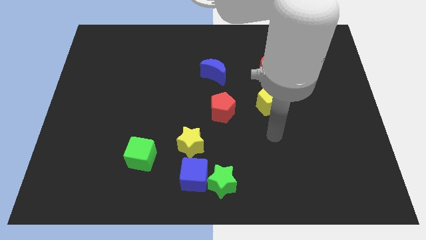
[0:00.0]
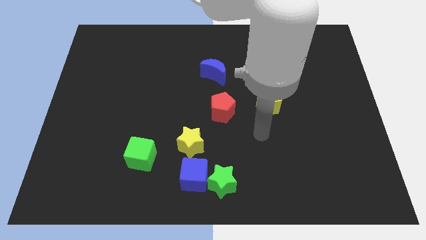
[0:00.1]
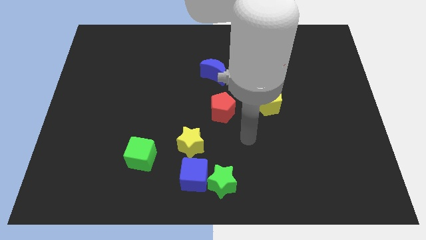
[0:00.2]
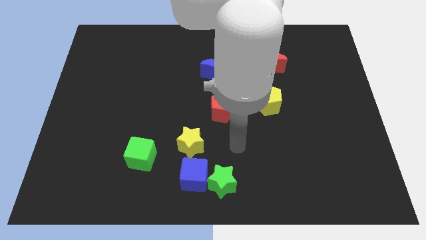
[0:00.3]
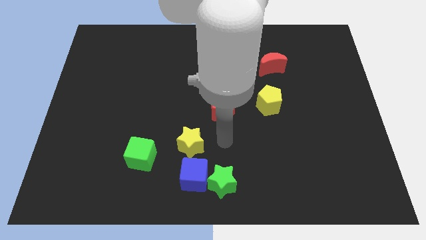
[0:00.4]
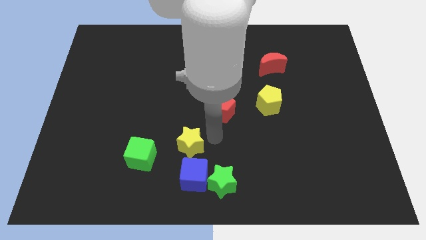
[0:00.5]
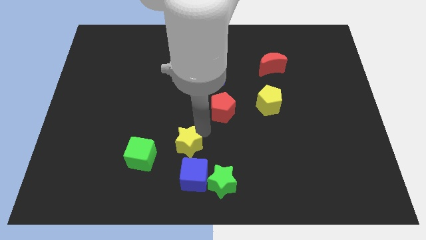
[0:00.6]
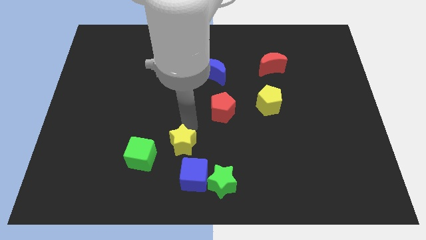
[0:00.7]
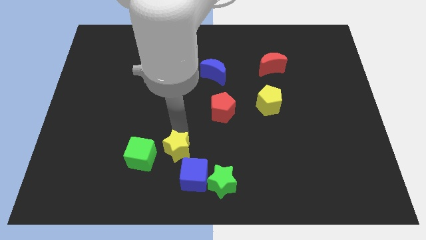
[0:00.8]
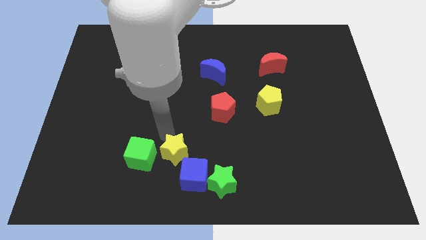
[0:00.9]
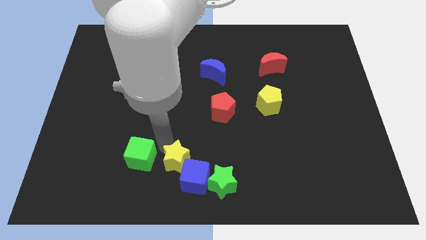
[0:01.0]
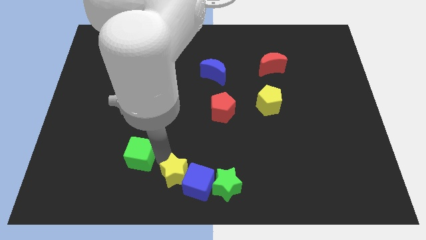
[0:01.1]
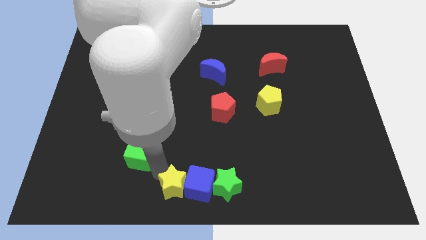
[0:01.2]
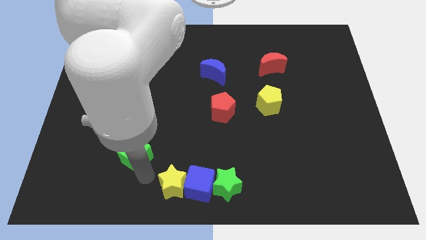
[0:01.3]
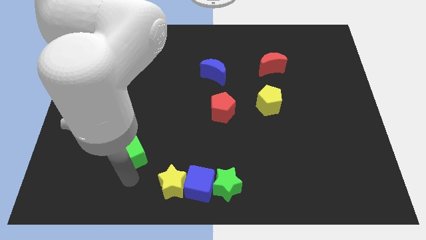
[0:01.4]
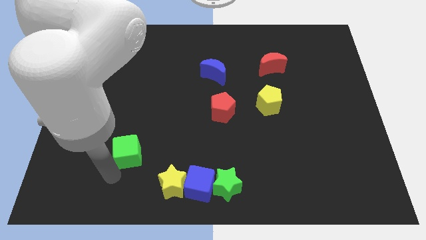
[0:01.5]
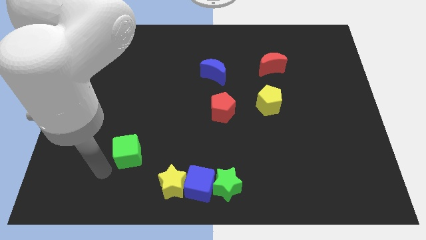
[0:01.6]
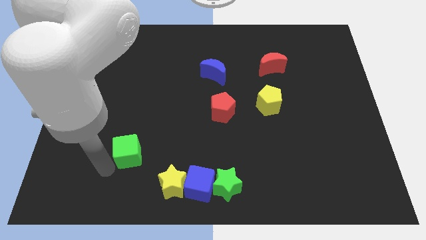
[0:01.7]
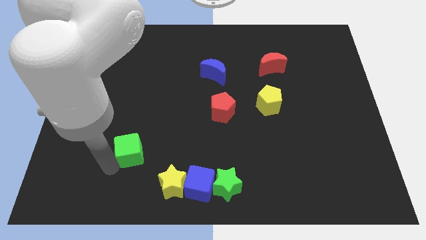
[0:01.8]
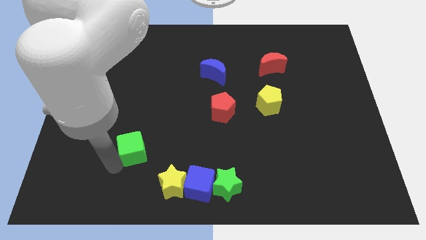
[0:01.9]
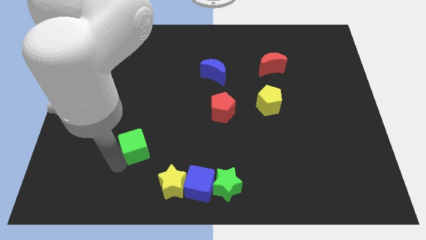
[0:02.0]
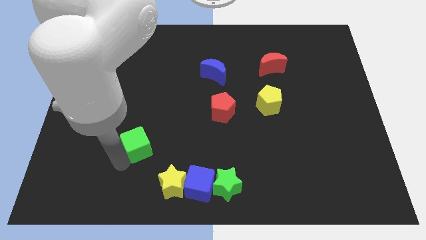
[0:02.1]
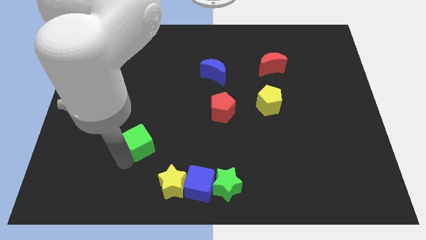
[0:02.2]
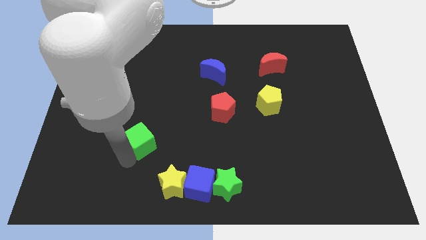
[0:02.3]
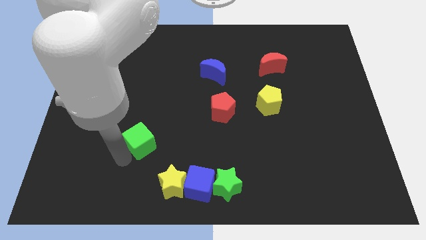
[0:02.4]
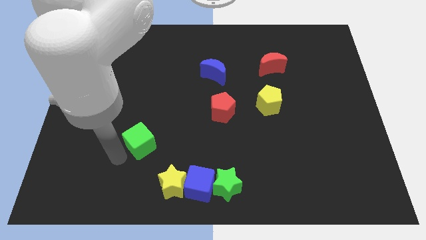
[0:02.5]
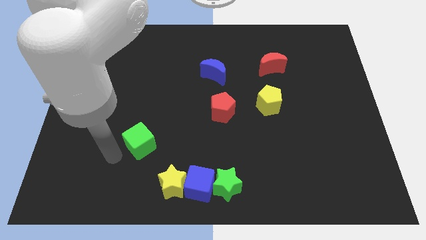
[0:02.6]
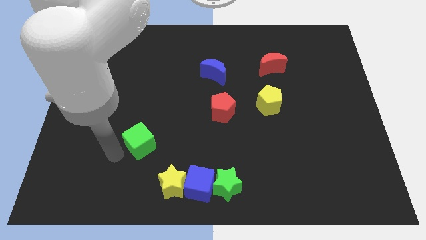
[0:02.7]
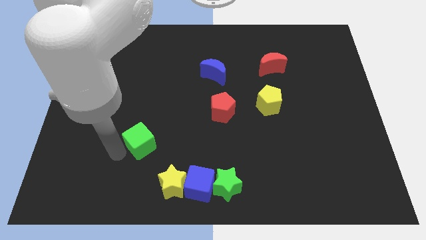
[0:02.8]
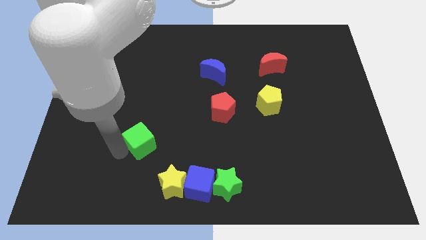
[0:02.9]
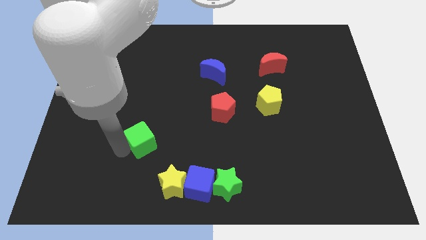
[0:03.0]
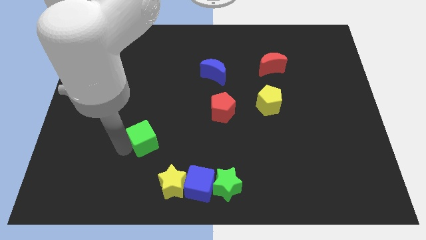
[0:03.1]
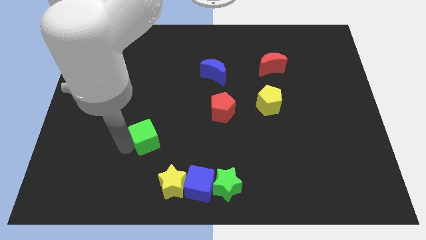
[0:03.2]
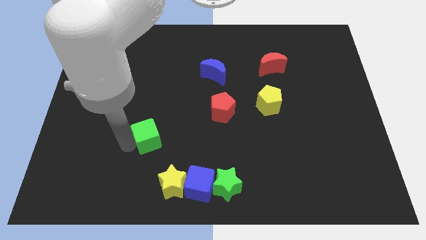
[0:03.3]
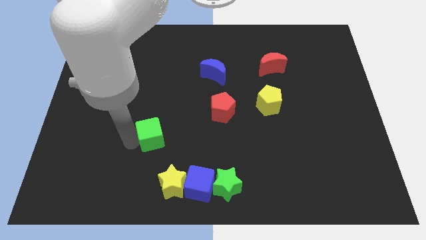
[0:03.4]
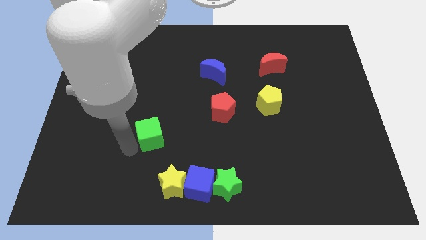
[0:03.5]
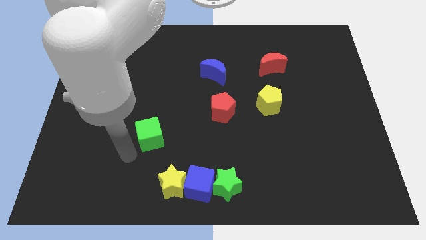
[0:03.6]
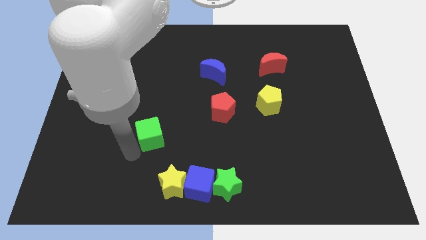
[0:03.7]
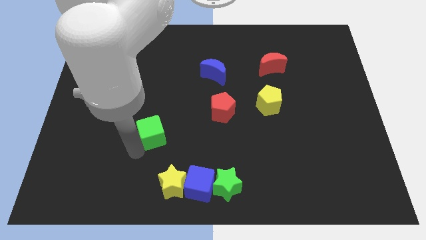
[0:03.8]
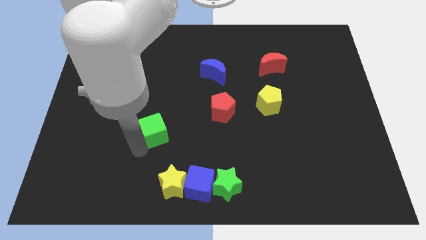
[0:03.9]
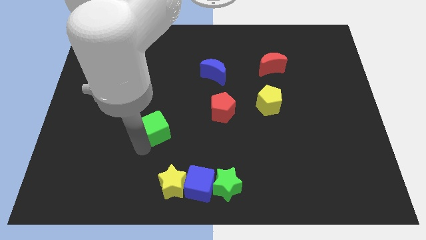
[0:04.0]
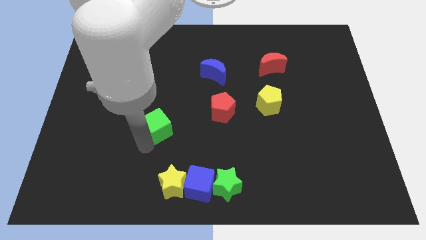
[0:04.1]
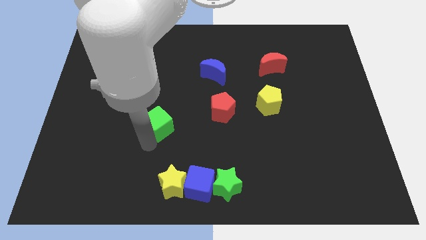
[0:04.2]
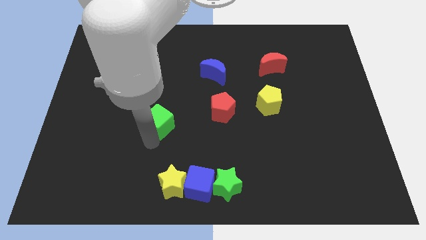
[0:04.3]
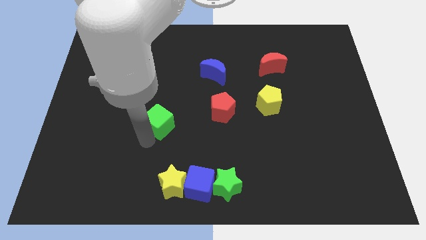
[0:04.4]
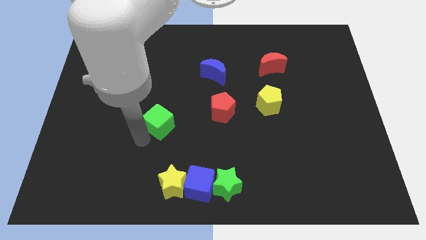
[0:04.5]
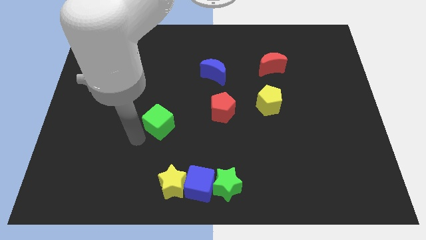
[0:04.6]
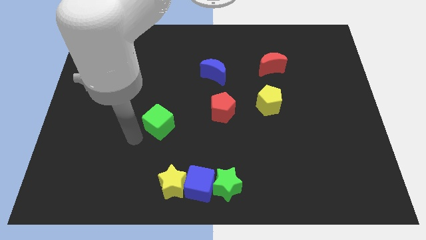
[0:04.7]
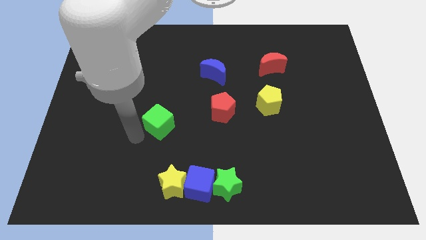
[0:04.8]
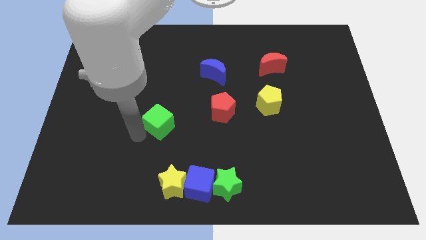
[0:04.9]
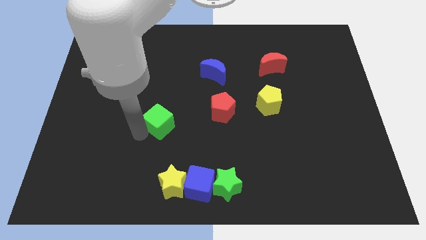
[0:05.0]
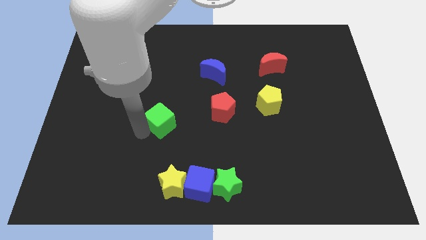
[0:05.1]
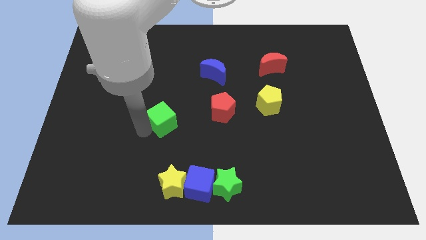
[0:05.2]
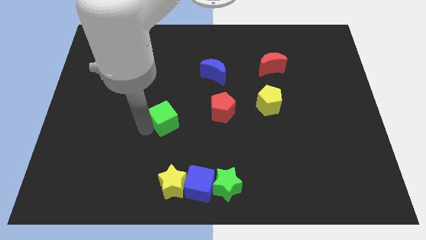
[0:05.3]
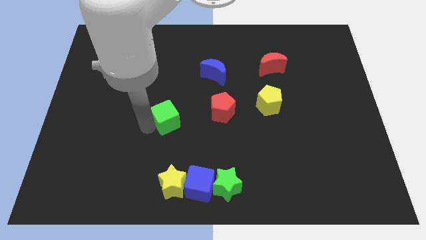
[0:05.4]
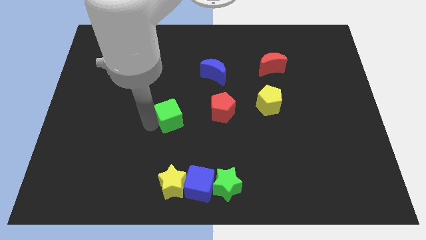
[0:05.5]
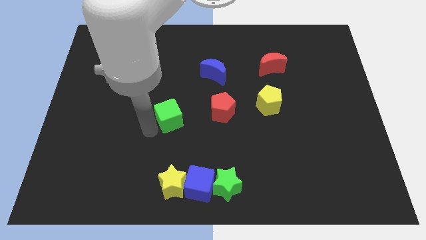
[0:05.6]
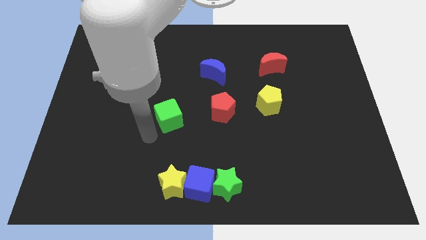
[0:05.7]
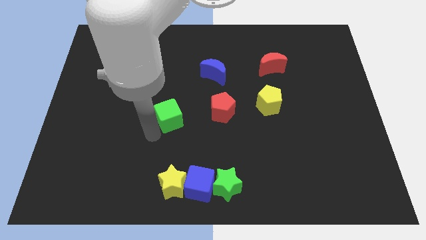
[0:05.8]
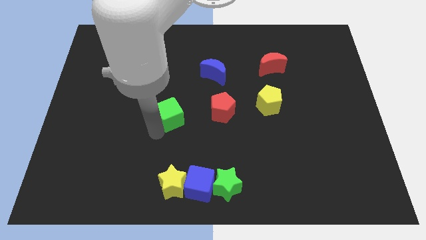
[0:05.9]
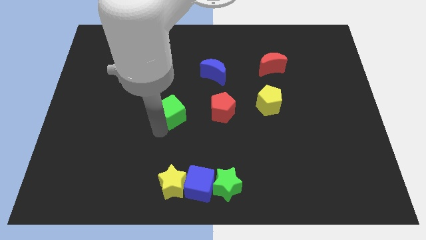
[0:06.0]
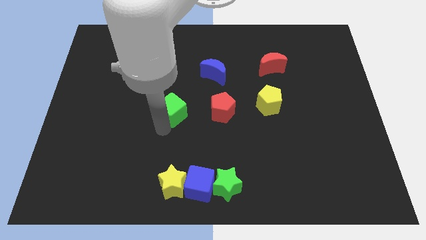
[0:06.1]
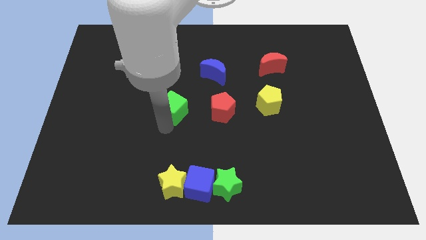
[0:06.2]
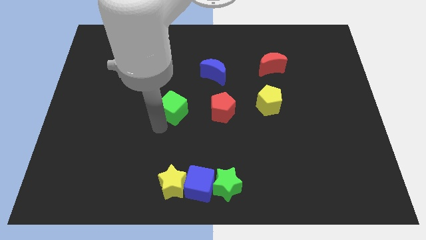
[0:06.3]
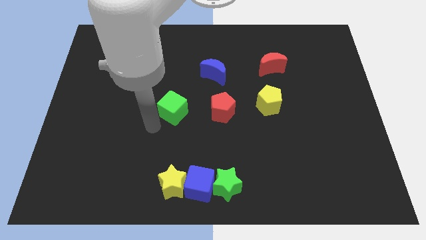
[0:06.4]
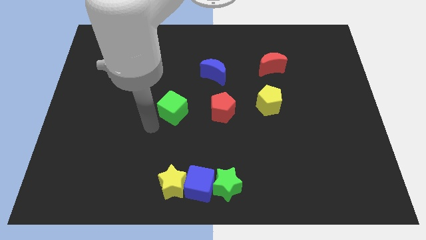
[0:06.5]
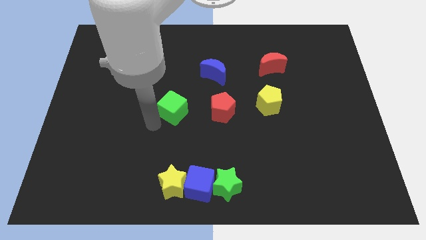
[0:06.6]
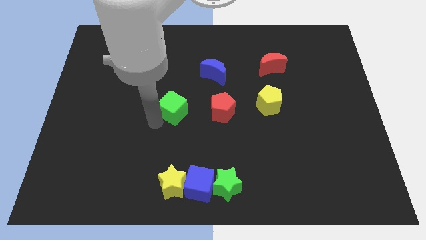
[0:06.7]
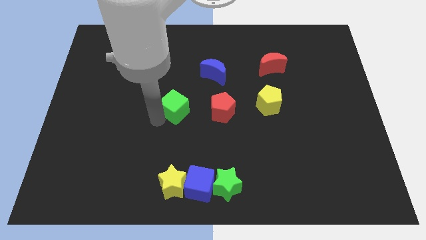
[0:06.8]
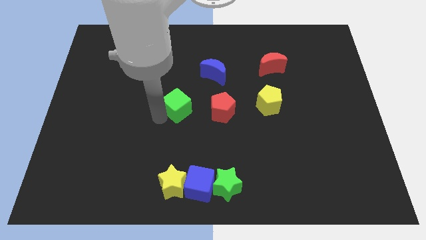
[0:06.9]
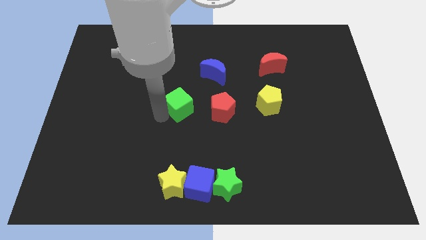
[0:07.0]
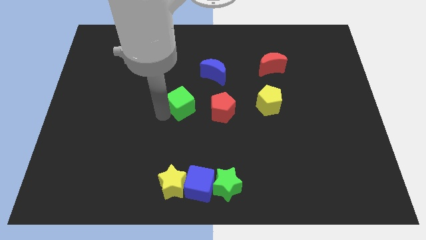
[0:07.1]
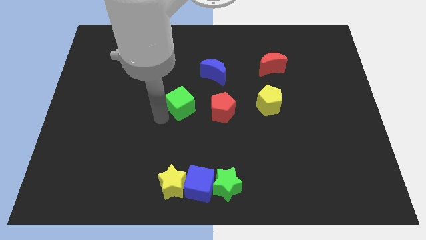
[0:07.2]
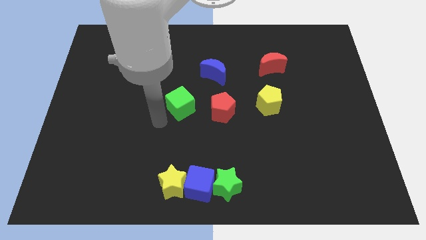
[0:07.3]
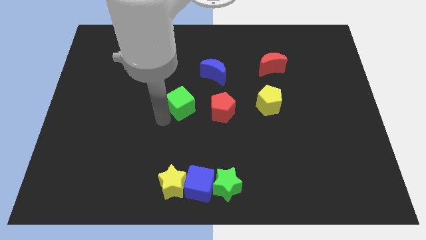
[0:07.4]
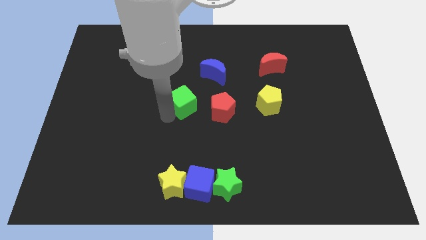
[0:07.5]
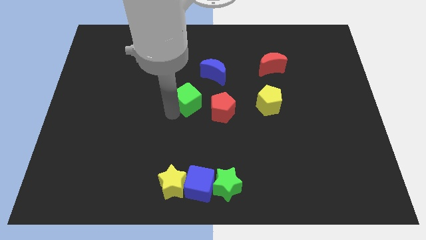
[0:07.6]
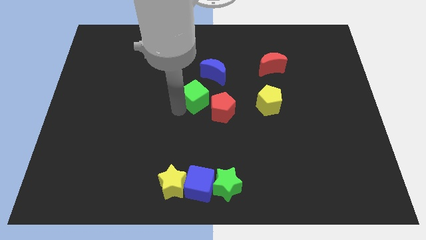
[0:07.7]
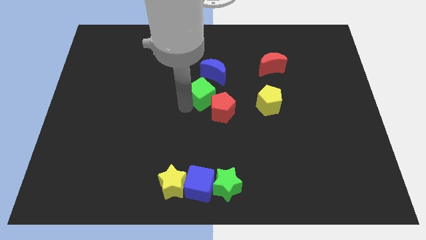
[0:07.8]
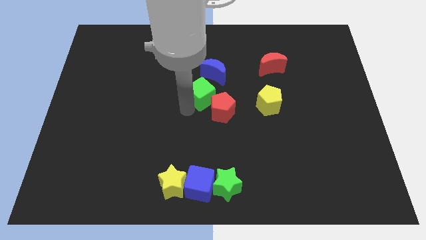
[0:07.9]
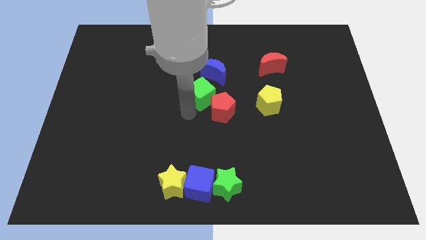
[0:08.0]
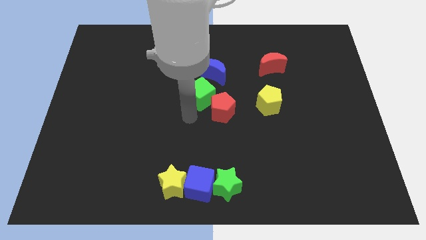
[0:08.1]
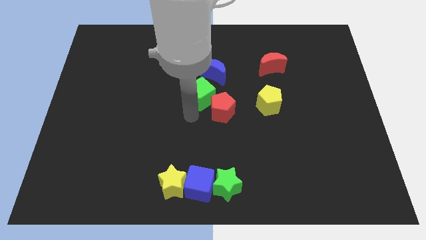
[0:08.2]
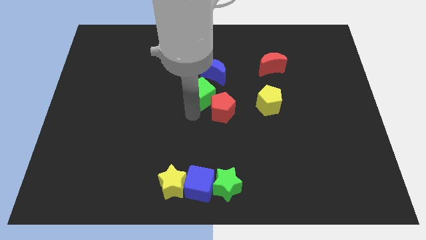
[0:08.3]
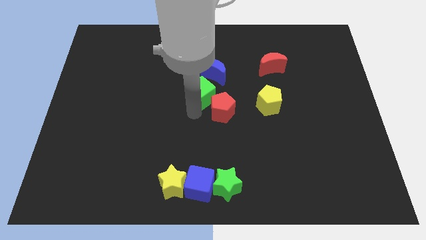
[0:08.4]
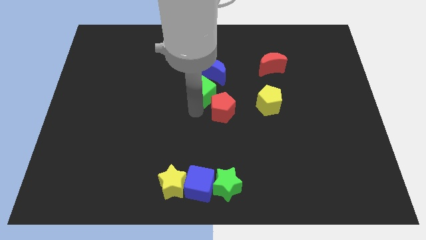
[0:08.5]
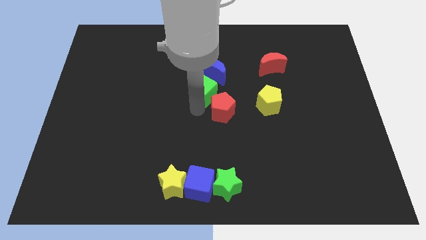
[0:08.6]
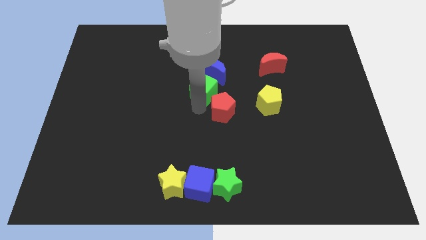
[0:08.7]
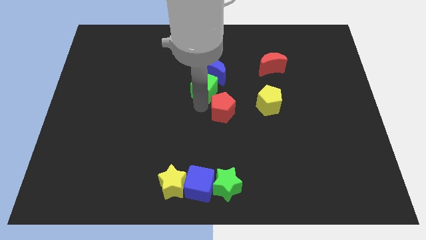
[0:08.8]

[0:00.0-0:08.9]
put the green cube to the blue moon
